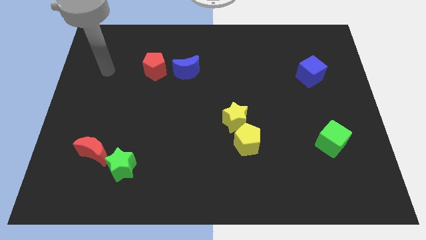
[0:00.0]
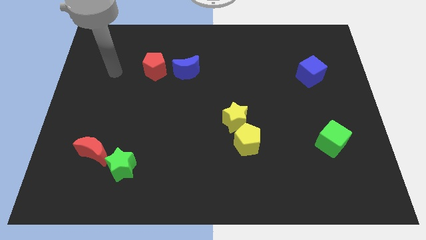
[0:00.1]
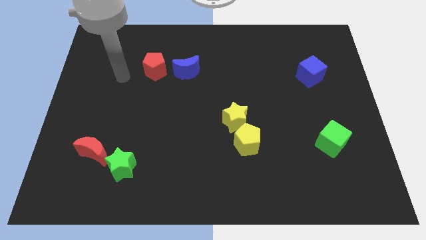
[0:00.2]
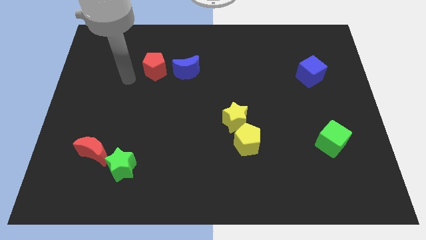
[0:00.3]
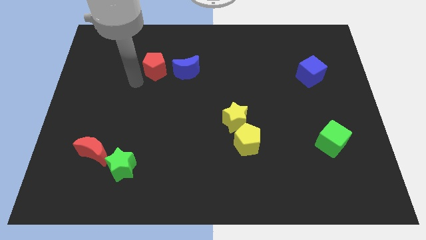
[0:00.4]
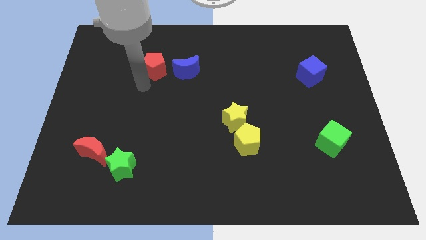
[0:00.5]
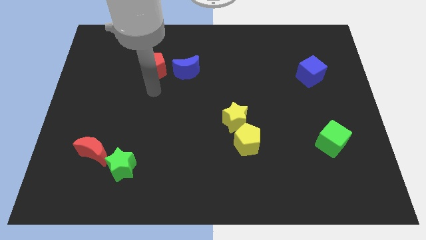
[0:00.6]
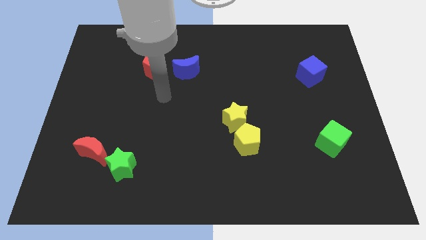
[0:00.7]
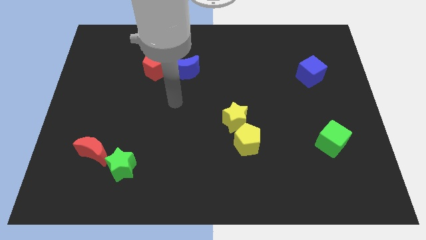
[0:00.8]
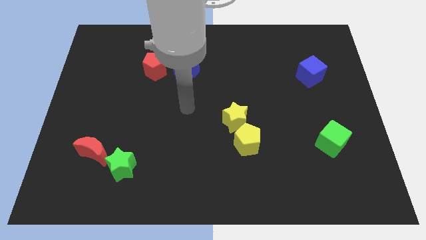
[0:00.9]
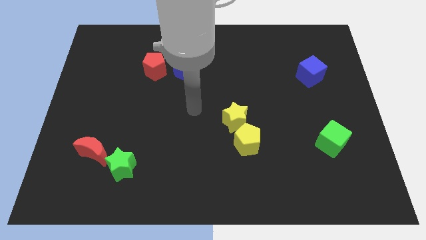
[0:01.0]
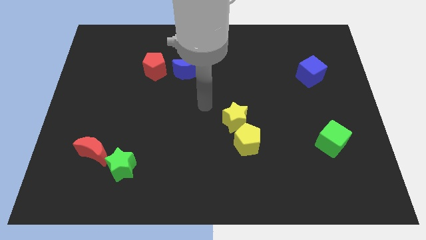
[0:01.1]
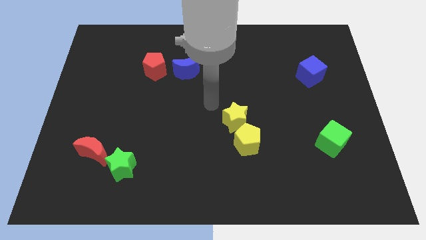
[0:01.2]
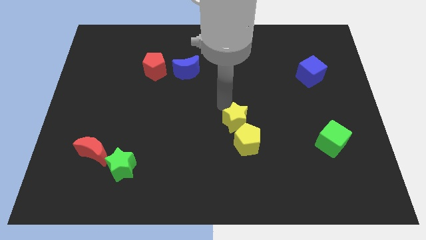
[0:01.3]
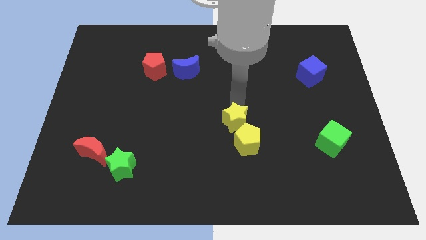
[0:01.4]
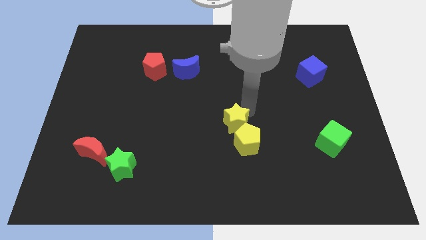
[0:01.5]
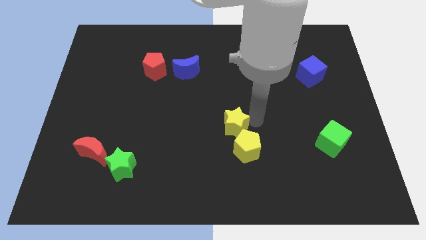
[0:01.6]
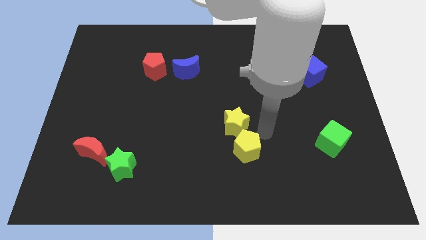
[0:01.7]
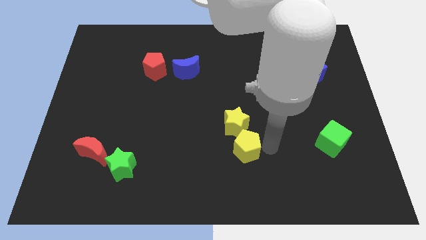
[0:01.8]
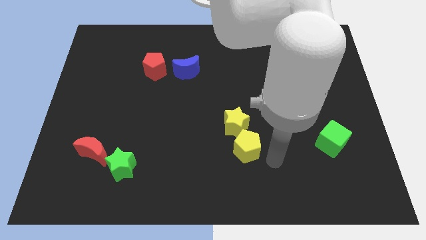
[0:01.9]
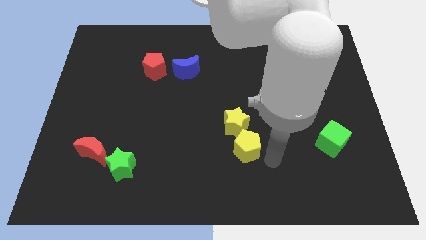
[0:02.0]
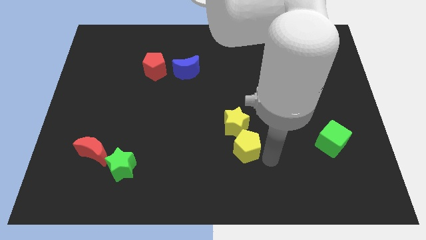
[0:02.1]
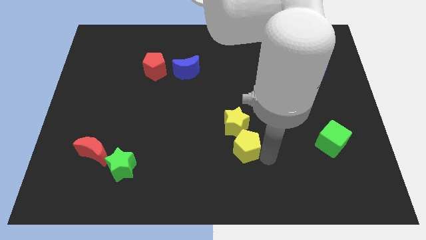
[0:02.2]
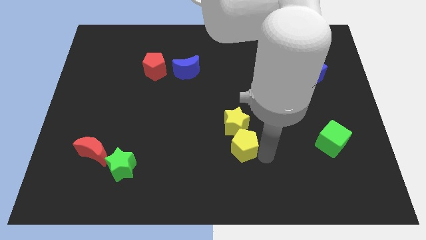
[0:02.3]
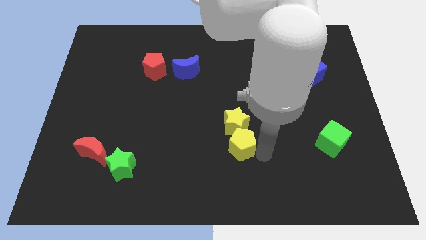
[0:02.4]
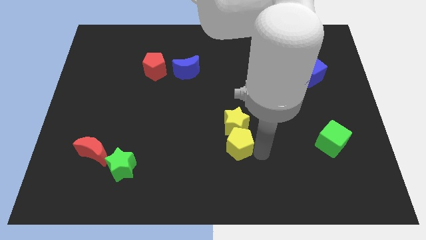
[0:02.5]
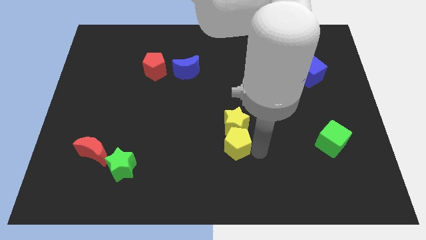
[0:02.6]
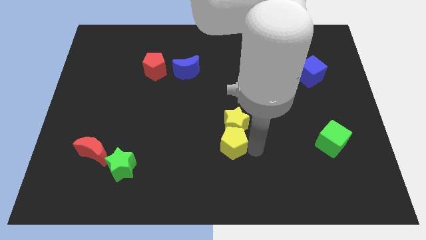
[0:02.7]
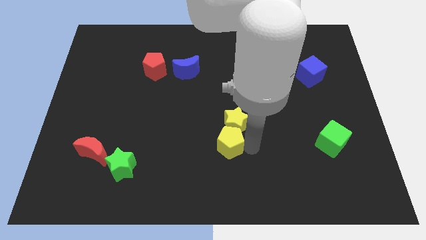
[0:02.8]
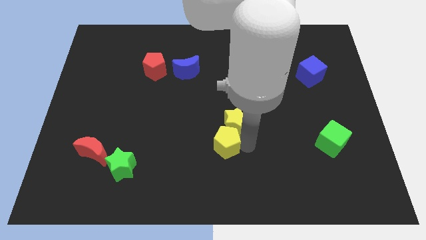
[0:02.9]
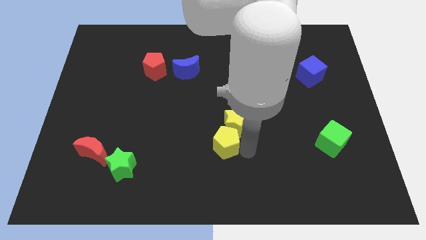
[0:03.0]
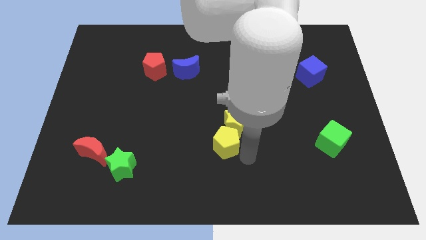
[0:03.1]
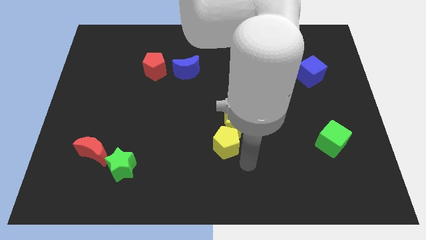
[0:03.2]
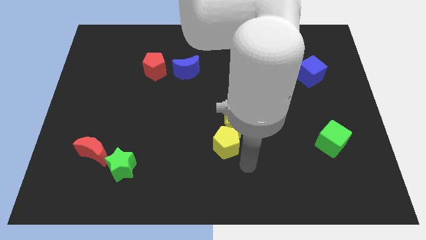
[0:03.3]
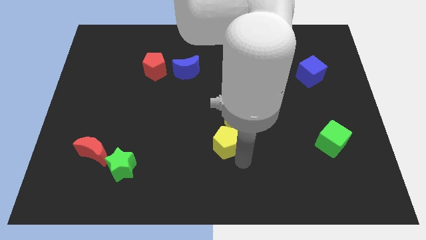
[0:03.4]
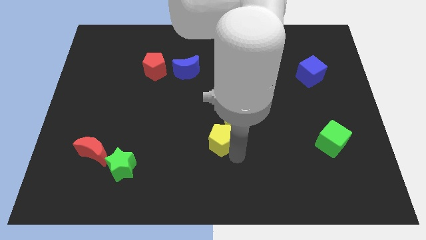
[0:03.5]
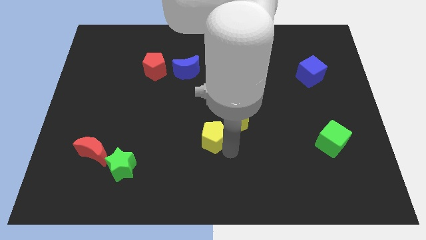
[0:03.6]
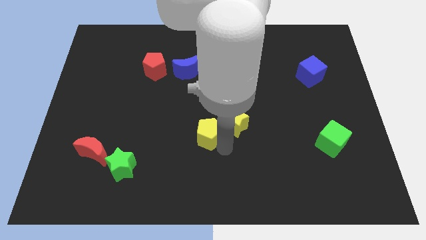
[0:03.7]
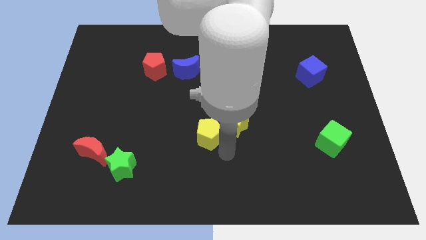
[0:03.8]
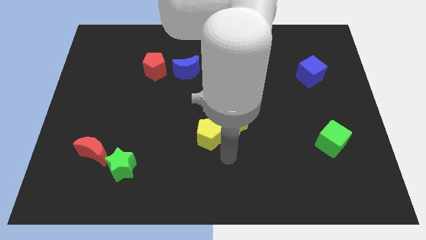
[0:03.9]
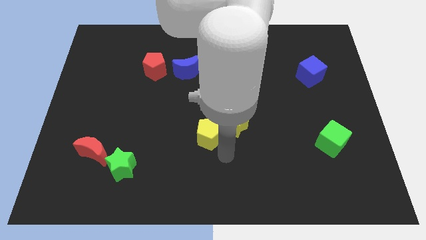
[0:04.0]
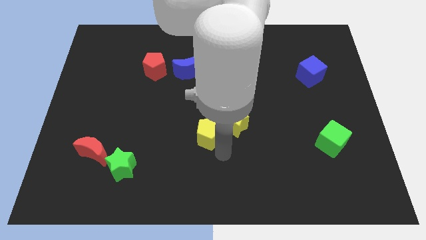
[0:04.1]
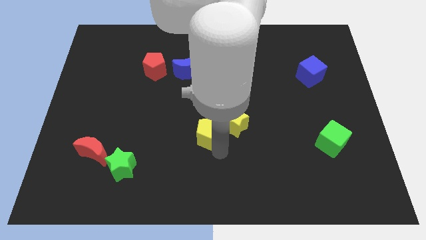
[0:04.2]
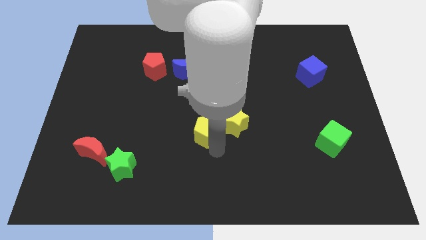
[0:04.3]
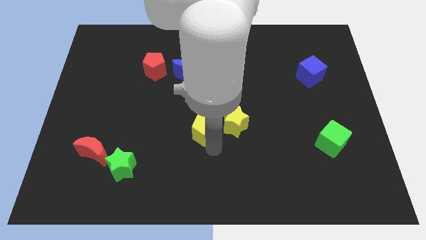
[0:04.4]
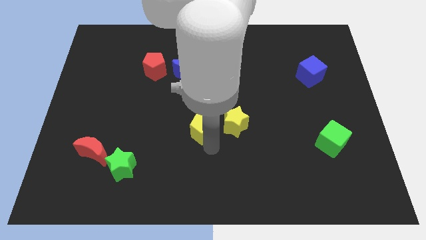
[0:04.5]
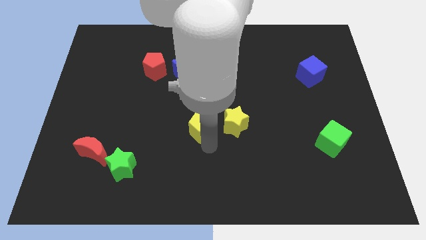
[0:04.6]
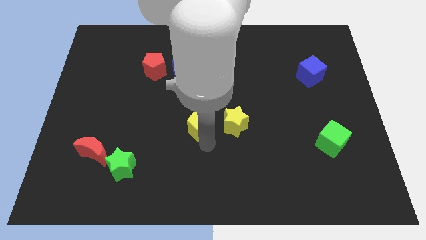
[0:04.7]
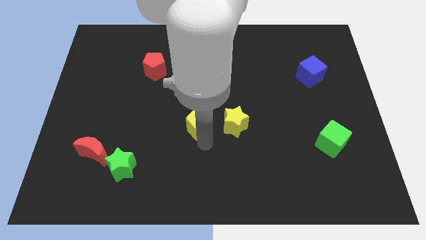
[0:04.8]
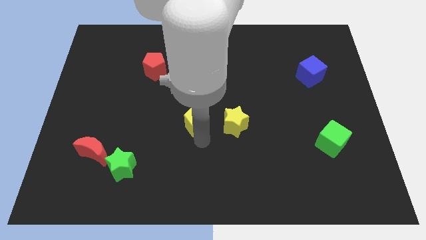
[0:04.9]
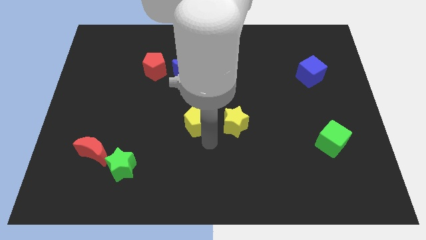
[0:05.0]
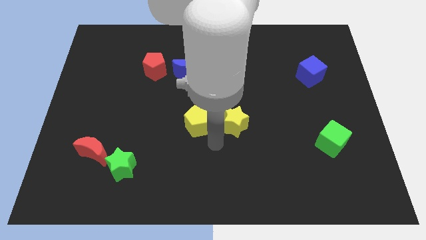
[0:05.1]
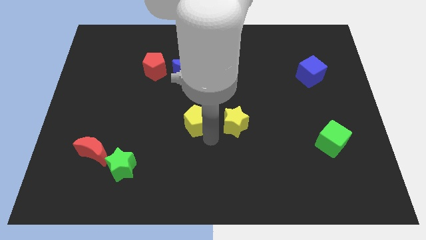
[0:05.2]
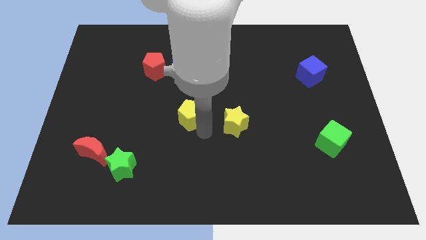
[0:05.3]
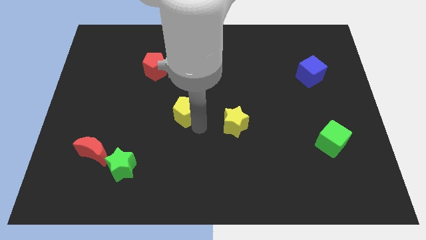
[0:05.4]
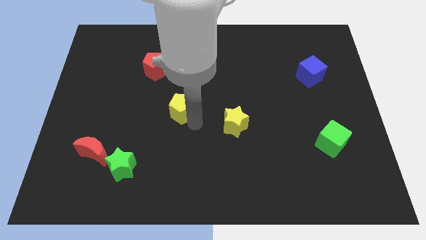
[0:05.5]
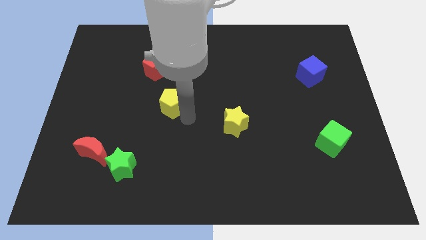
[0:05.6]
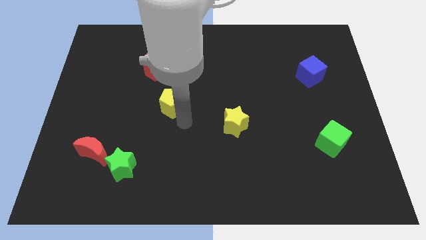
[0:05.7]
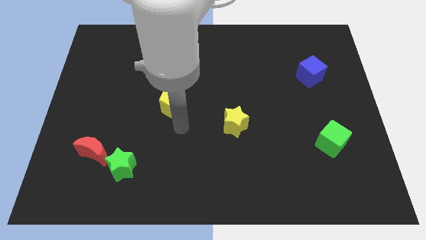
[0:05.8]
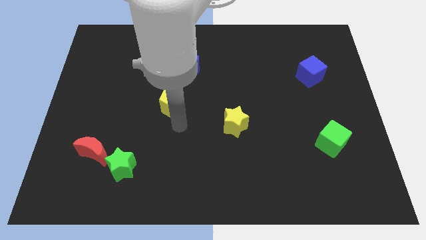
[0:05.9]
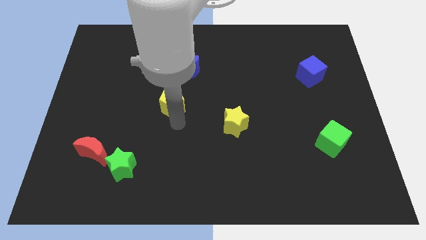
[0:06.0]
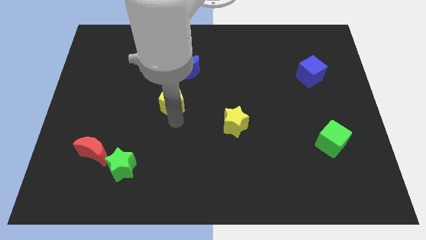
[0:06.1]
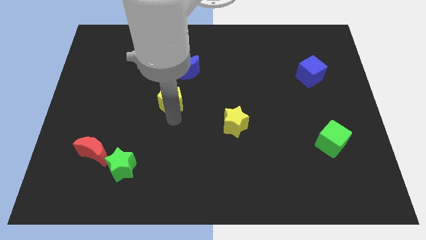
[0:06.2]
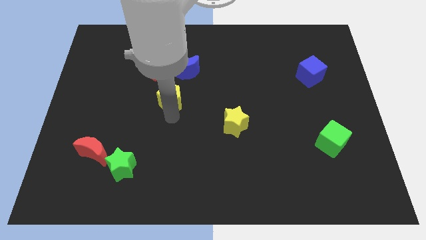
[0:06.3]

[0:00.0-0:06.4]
push the yellow pentagon to the bottom left of the blue moon
